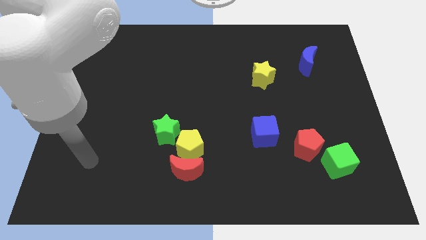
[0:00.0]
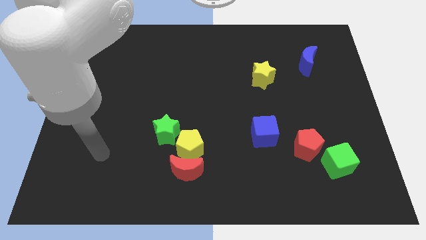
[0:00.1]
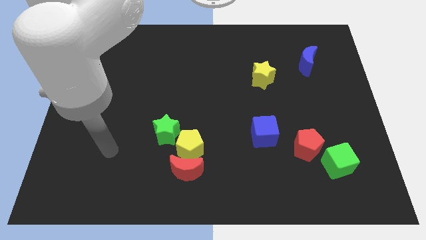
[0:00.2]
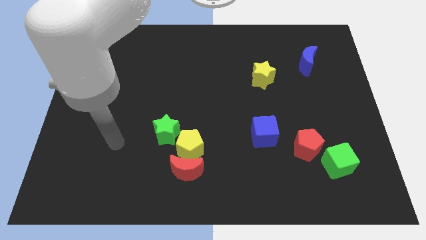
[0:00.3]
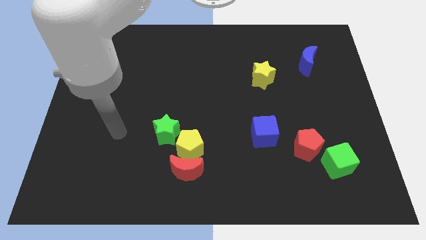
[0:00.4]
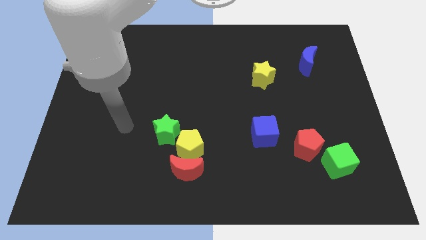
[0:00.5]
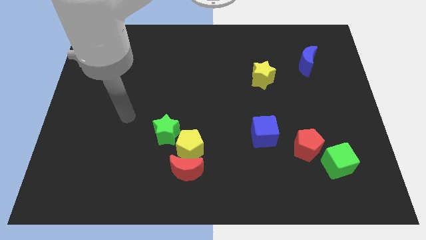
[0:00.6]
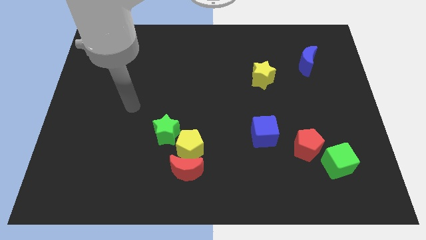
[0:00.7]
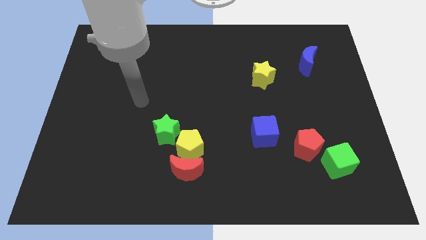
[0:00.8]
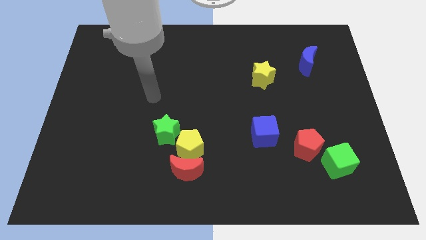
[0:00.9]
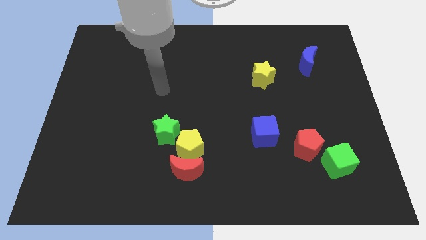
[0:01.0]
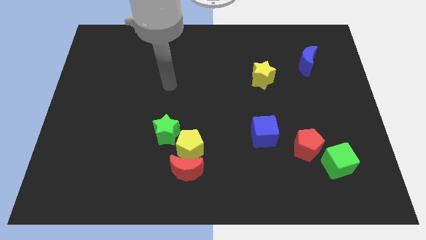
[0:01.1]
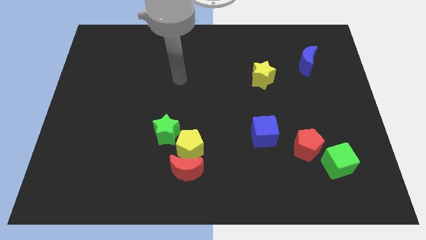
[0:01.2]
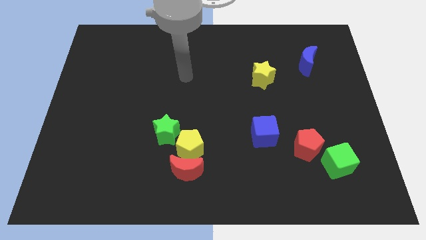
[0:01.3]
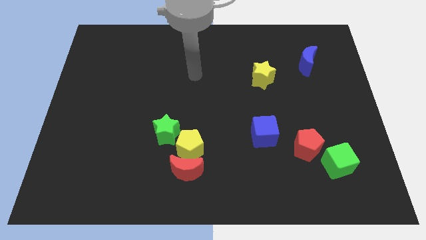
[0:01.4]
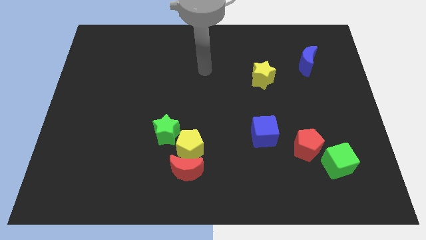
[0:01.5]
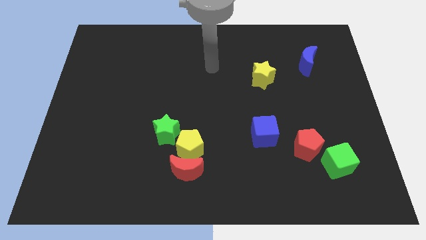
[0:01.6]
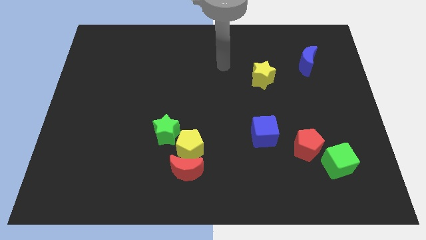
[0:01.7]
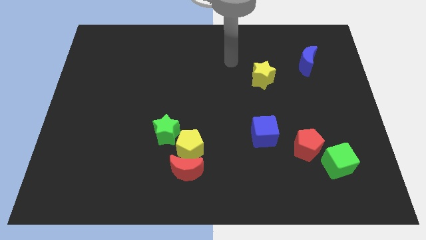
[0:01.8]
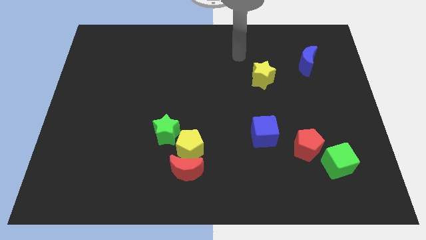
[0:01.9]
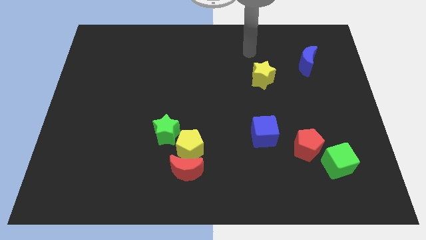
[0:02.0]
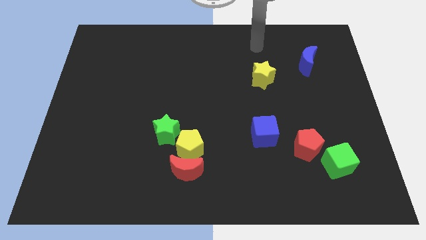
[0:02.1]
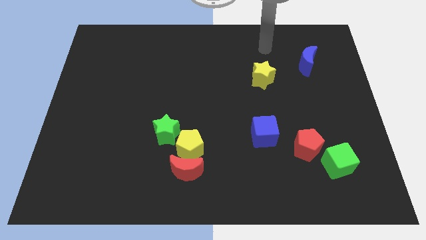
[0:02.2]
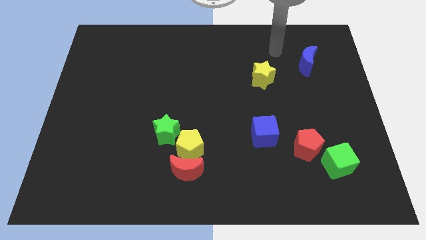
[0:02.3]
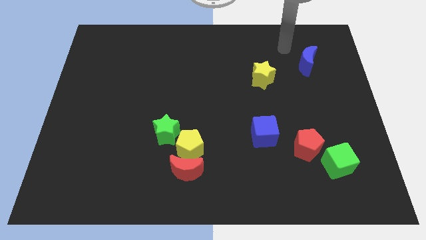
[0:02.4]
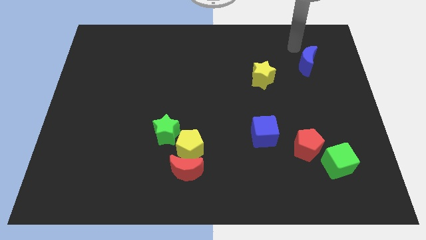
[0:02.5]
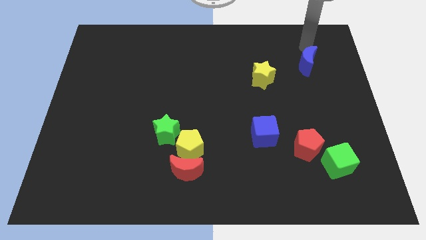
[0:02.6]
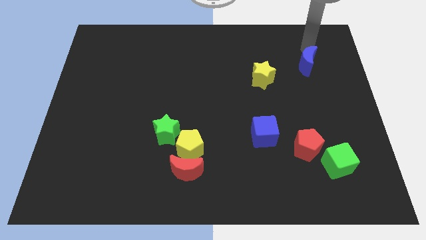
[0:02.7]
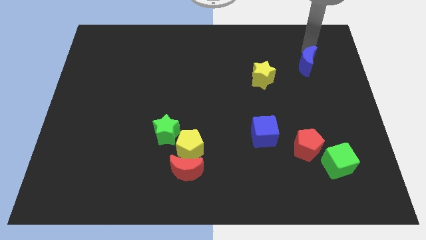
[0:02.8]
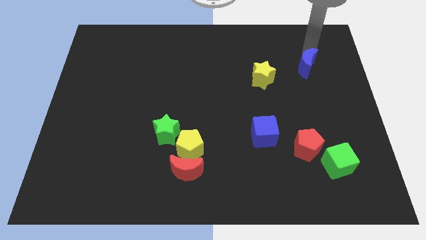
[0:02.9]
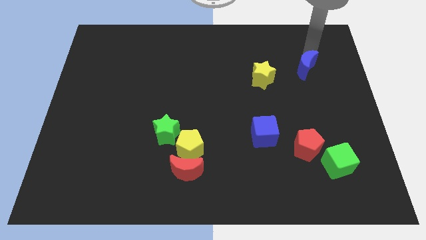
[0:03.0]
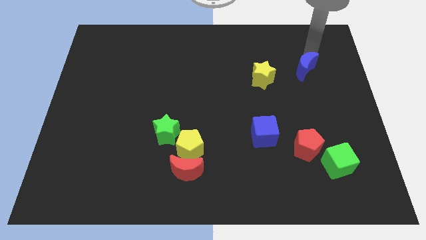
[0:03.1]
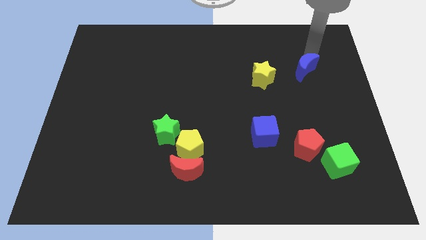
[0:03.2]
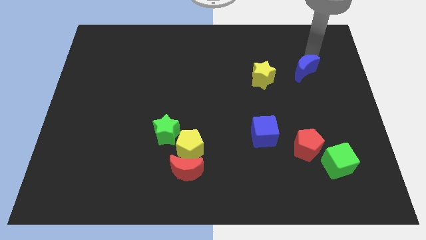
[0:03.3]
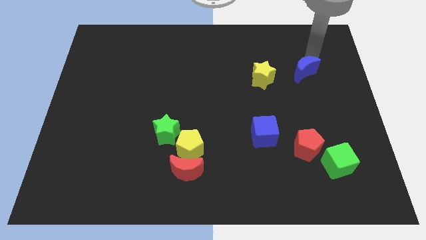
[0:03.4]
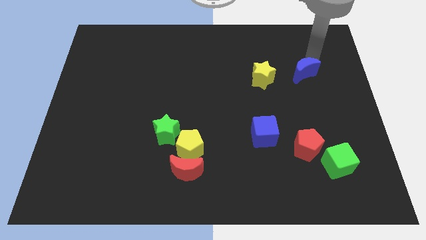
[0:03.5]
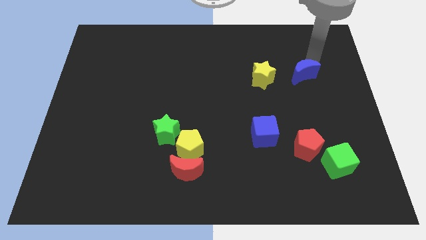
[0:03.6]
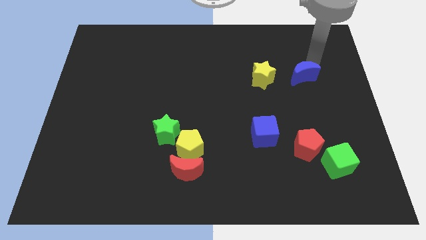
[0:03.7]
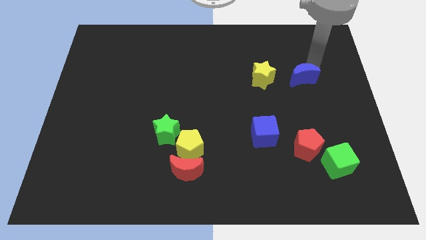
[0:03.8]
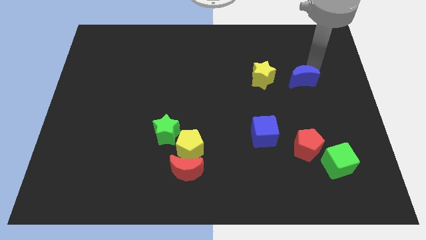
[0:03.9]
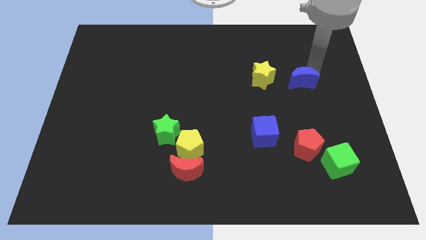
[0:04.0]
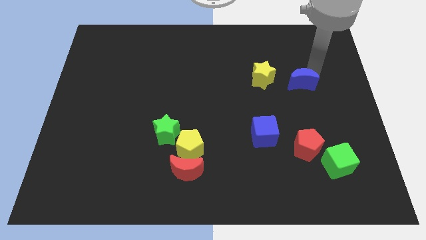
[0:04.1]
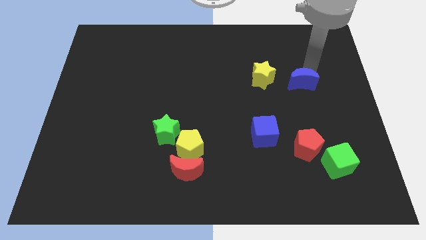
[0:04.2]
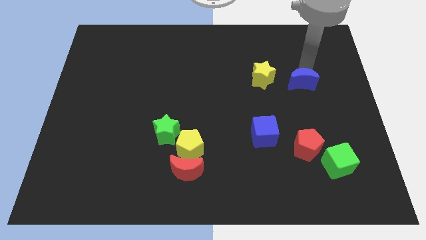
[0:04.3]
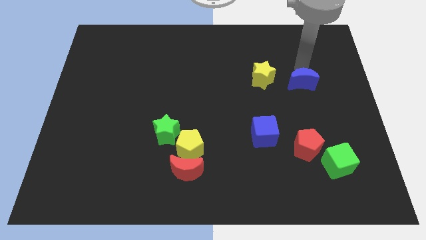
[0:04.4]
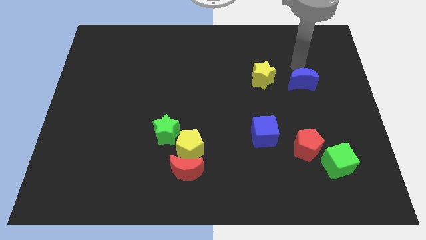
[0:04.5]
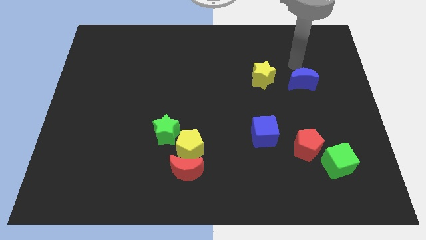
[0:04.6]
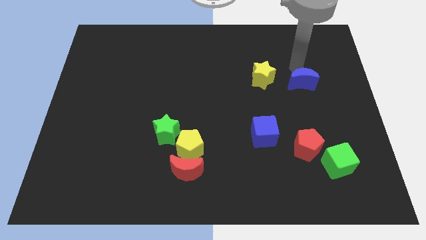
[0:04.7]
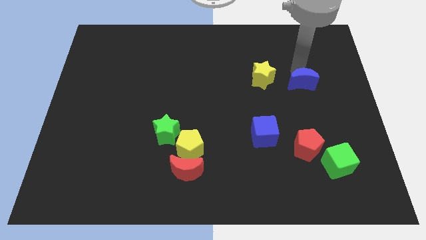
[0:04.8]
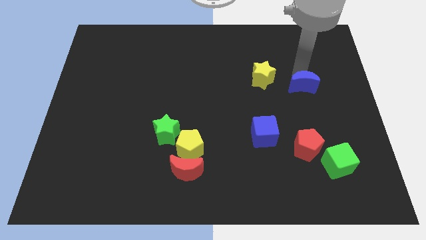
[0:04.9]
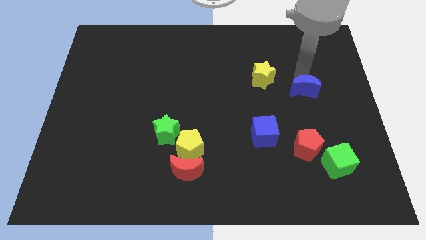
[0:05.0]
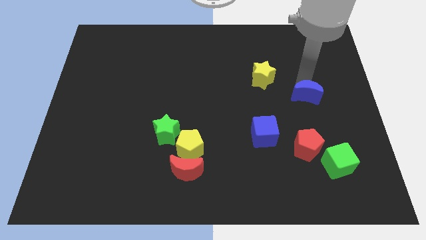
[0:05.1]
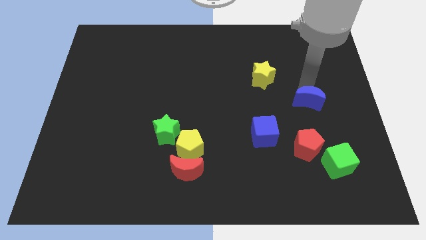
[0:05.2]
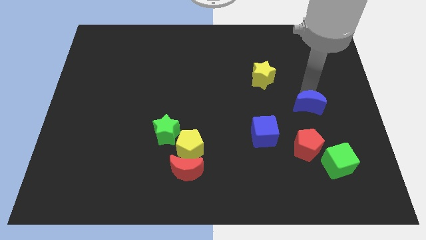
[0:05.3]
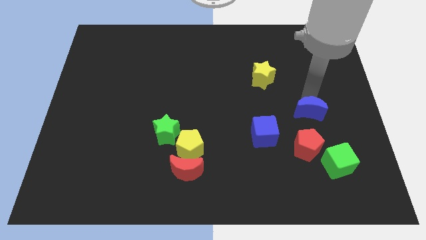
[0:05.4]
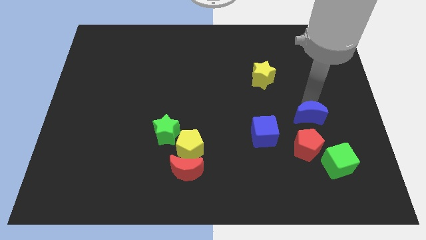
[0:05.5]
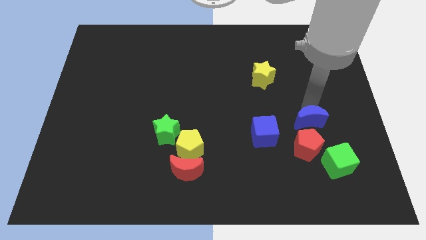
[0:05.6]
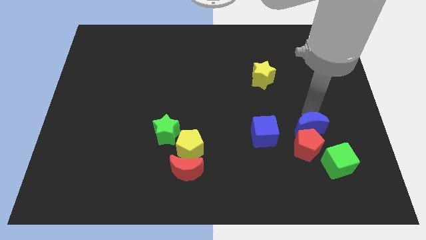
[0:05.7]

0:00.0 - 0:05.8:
push the blue moon close to the red pentagon

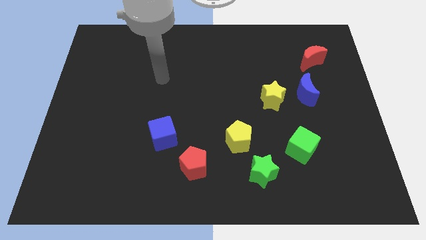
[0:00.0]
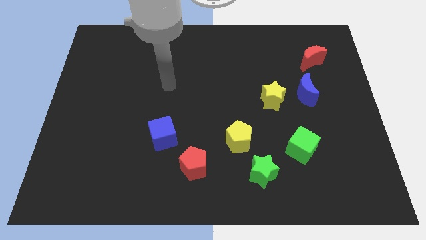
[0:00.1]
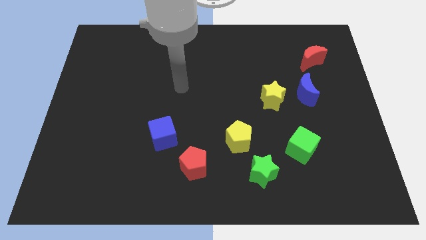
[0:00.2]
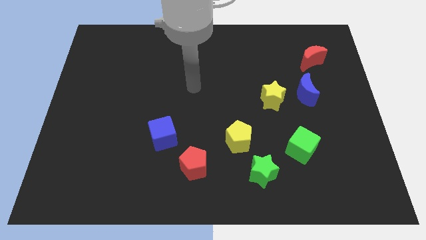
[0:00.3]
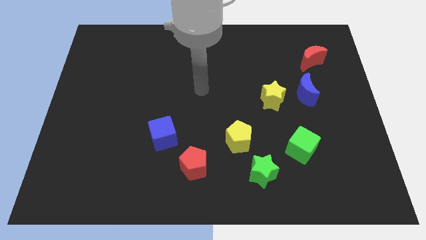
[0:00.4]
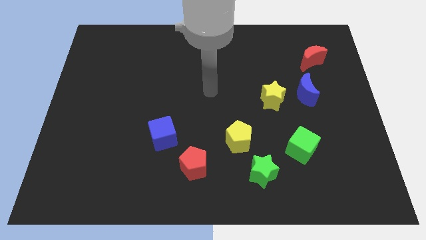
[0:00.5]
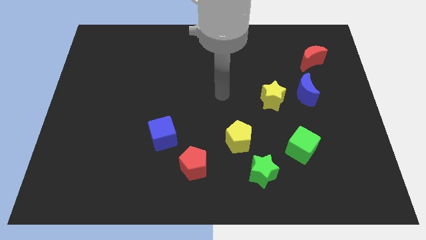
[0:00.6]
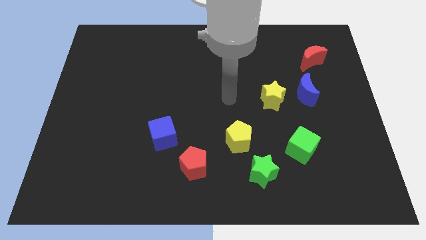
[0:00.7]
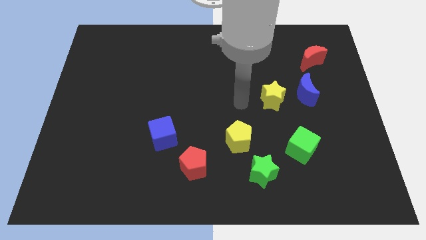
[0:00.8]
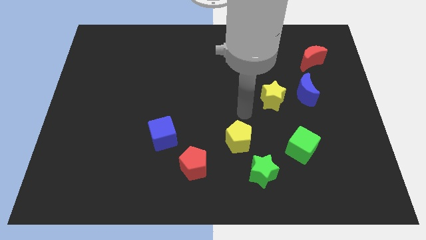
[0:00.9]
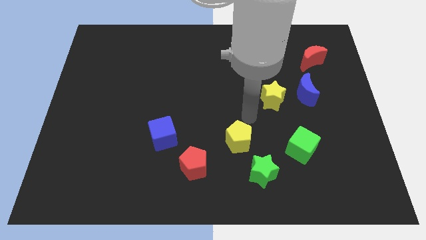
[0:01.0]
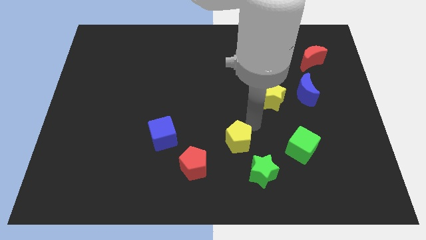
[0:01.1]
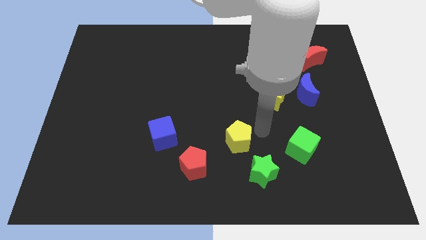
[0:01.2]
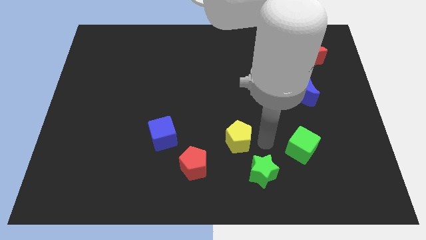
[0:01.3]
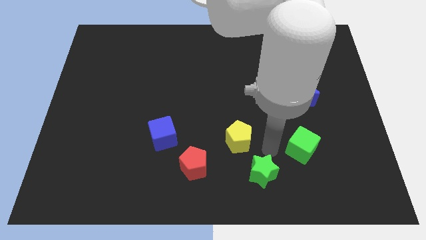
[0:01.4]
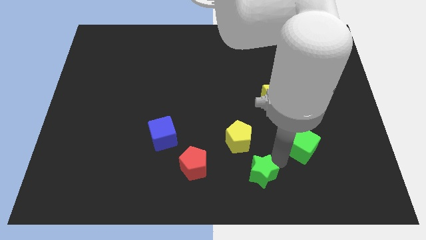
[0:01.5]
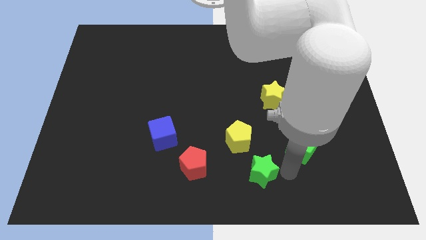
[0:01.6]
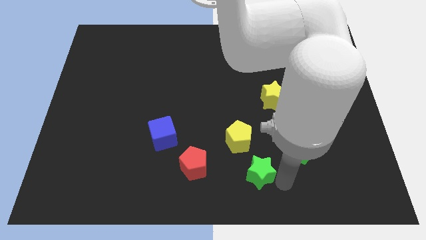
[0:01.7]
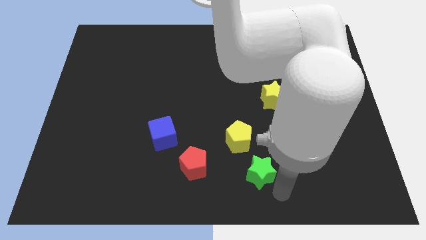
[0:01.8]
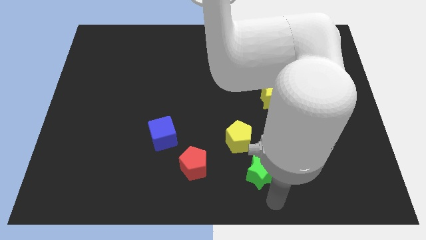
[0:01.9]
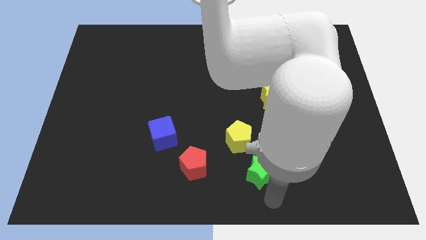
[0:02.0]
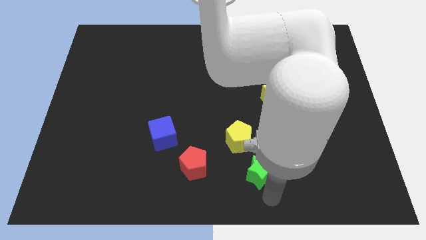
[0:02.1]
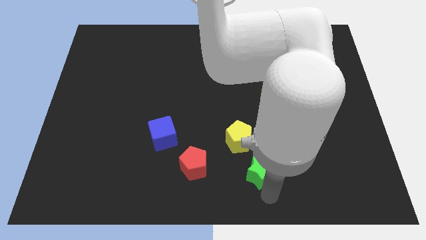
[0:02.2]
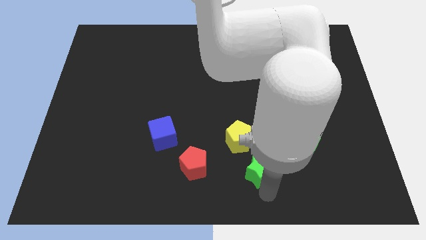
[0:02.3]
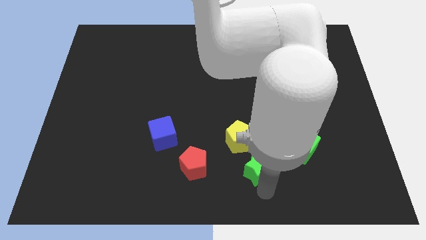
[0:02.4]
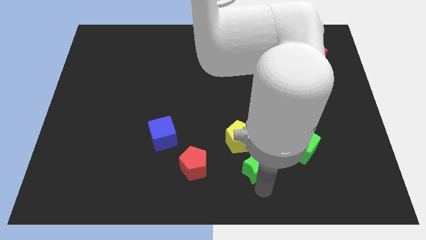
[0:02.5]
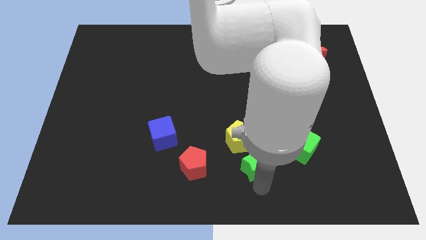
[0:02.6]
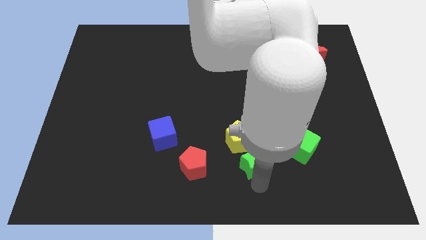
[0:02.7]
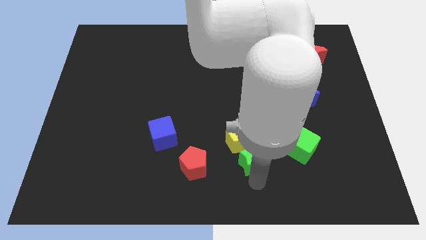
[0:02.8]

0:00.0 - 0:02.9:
put the green star to the yellow pentagon
